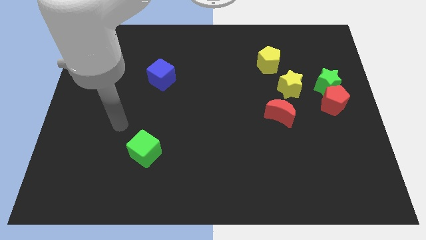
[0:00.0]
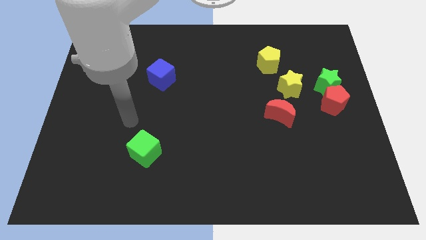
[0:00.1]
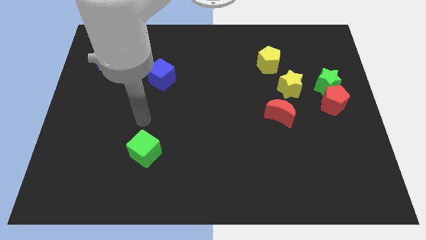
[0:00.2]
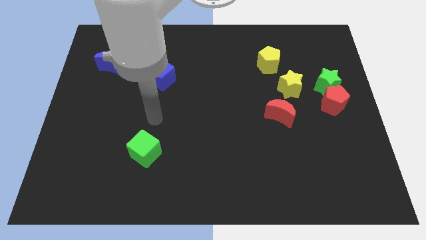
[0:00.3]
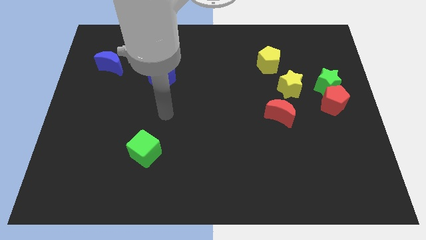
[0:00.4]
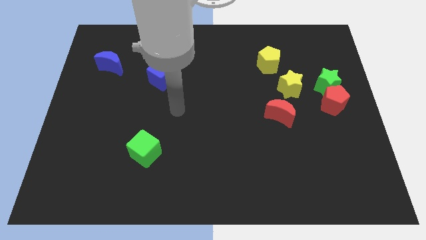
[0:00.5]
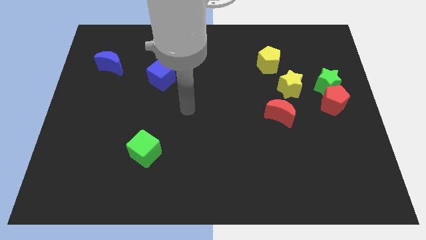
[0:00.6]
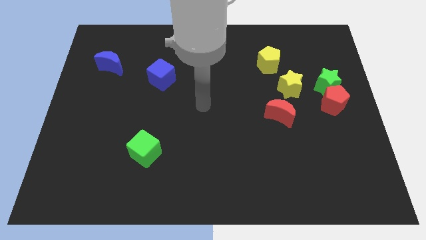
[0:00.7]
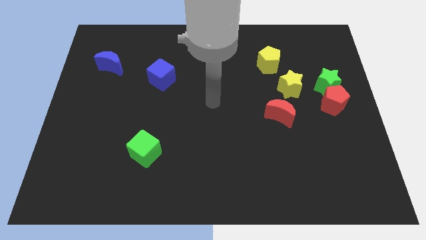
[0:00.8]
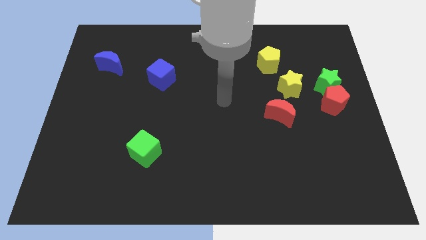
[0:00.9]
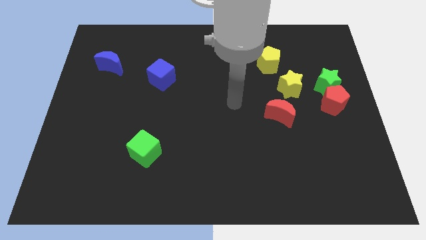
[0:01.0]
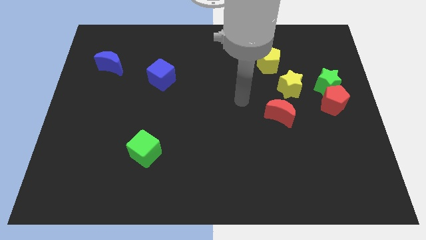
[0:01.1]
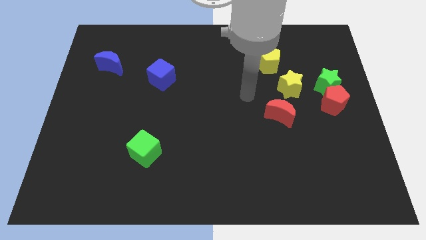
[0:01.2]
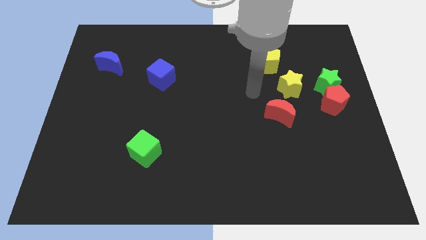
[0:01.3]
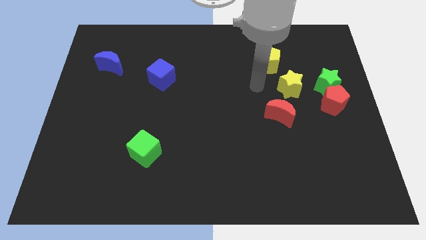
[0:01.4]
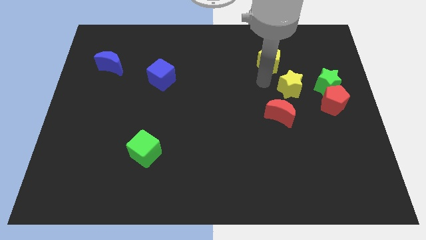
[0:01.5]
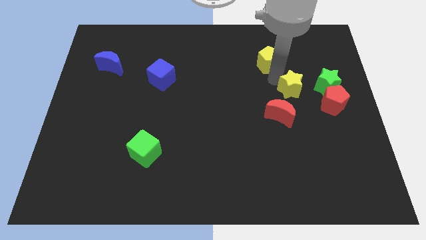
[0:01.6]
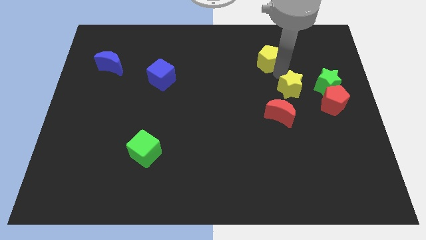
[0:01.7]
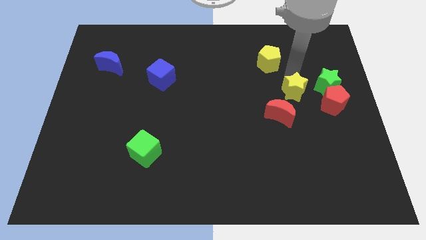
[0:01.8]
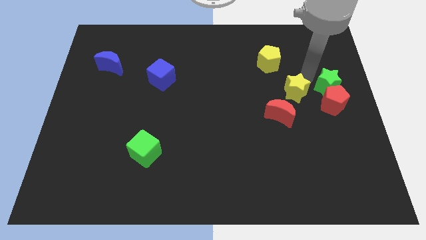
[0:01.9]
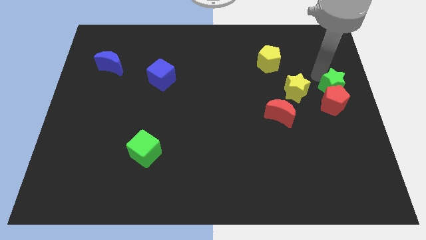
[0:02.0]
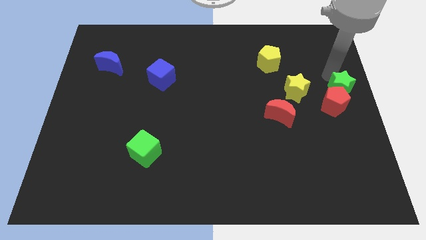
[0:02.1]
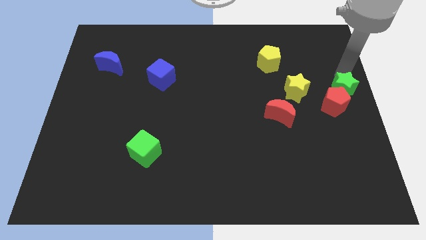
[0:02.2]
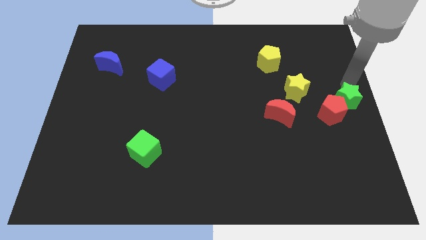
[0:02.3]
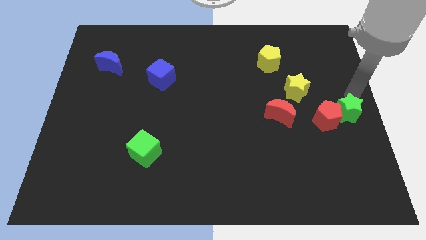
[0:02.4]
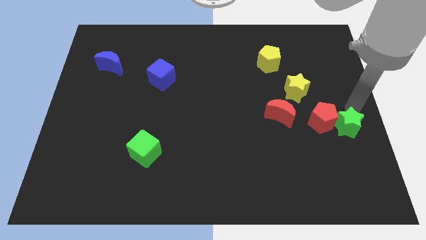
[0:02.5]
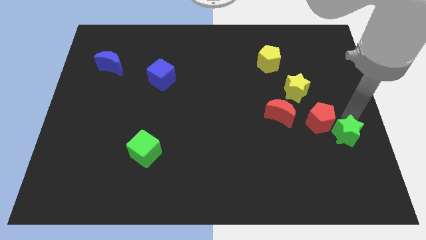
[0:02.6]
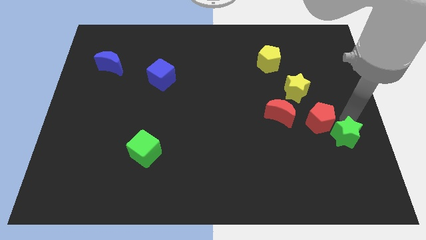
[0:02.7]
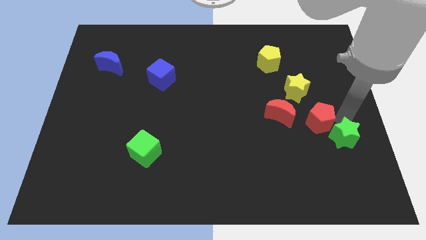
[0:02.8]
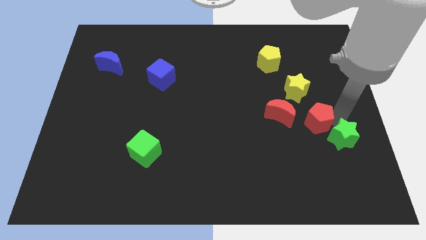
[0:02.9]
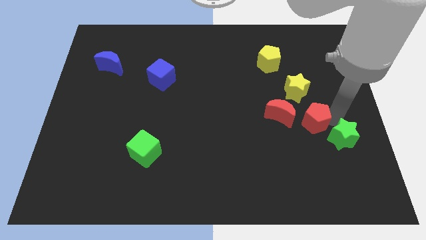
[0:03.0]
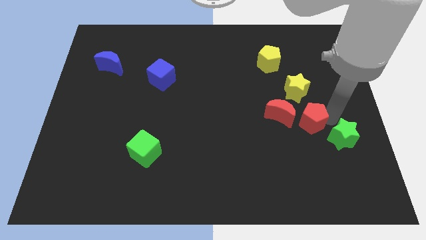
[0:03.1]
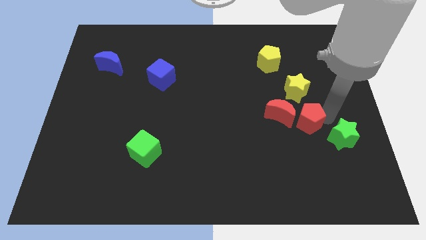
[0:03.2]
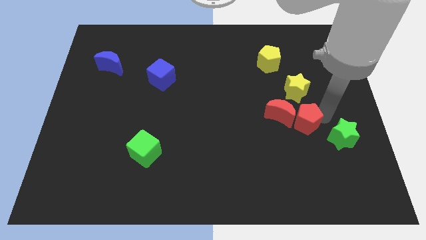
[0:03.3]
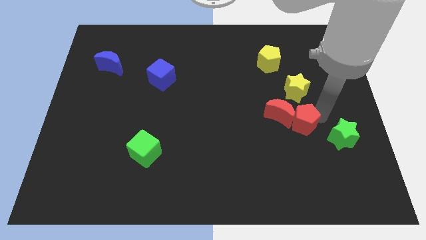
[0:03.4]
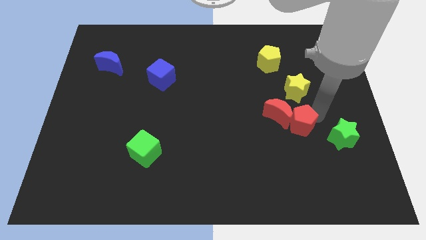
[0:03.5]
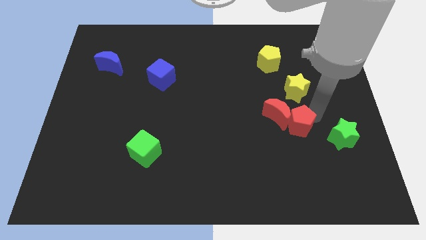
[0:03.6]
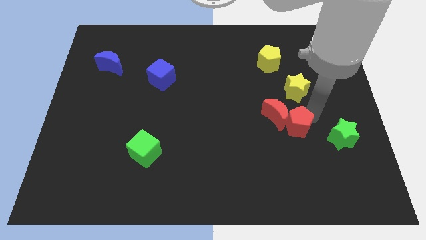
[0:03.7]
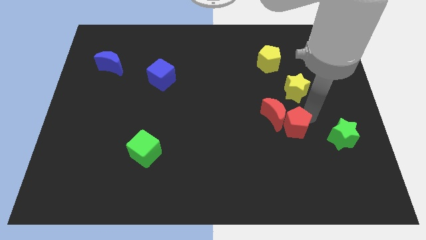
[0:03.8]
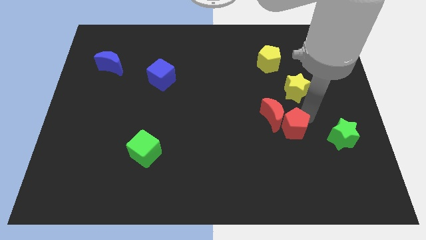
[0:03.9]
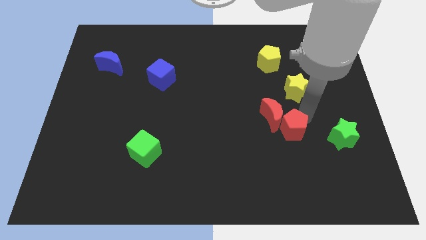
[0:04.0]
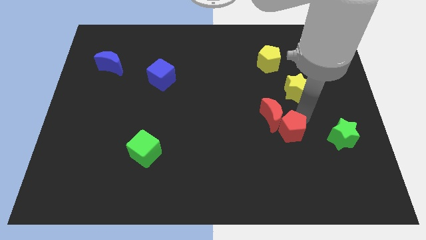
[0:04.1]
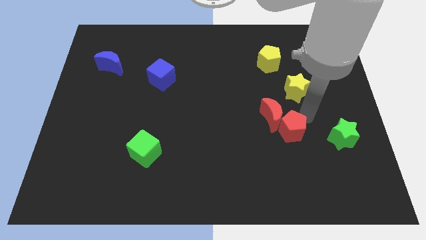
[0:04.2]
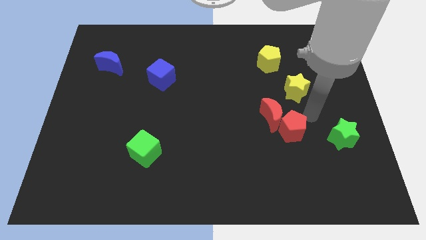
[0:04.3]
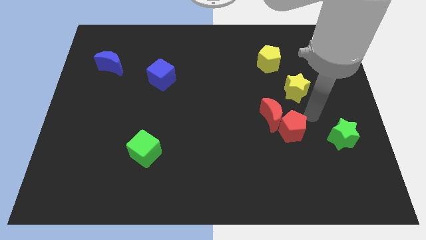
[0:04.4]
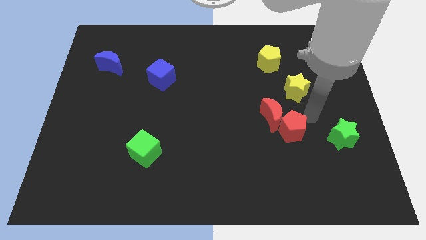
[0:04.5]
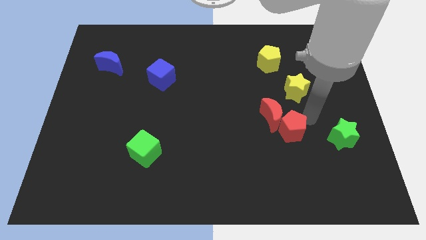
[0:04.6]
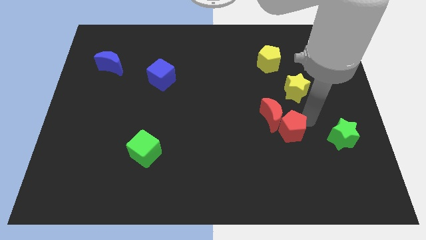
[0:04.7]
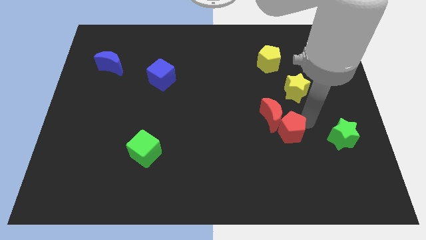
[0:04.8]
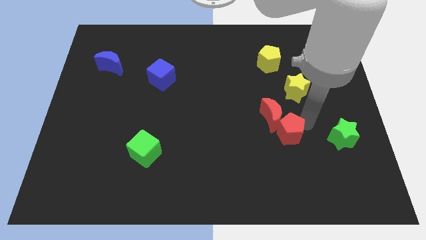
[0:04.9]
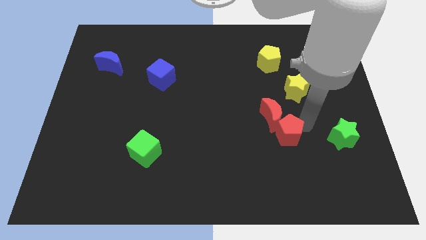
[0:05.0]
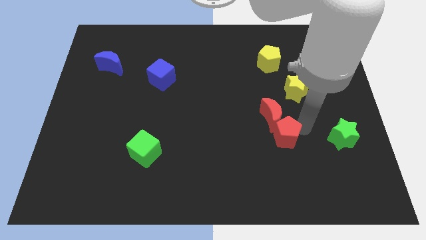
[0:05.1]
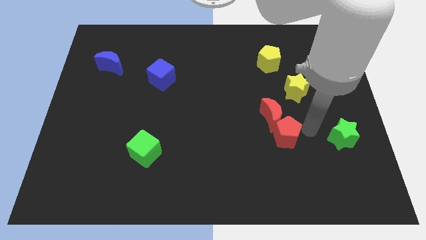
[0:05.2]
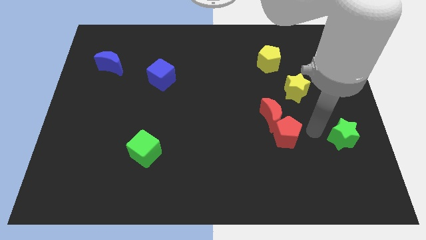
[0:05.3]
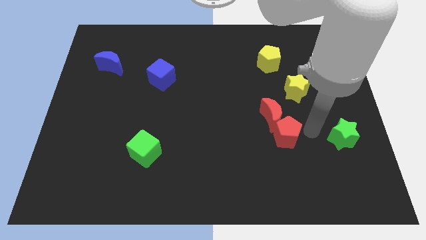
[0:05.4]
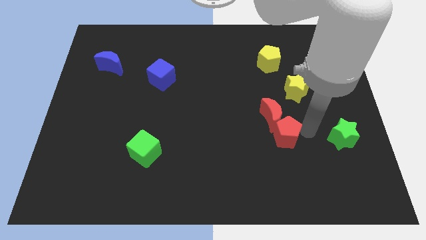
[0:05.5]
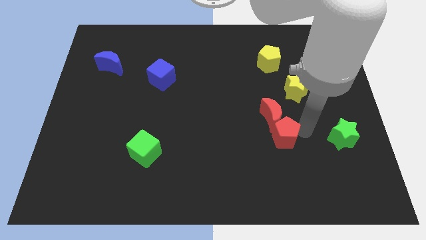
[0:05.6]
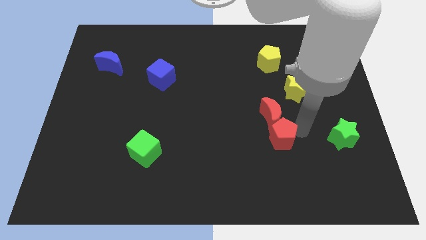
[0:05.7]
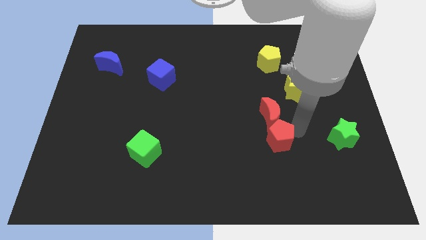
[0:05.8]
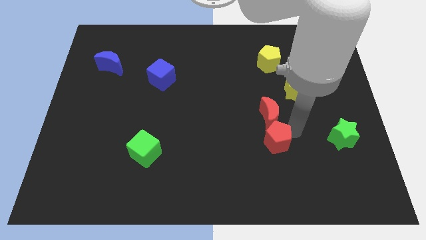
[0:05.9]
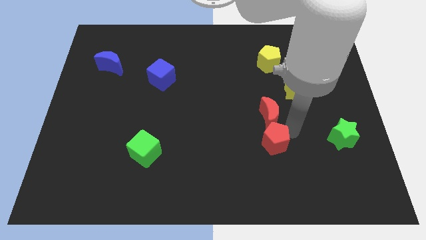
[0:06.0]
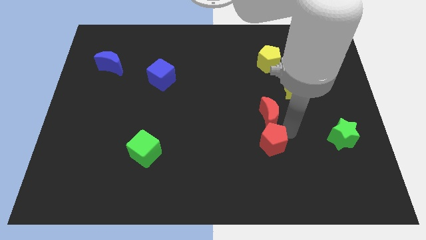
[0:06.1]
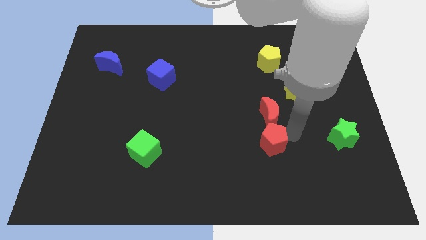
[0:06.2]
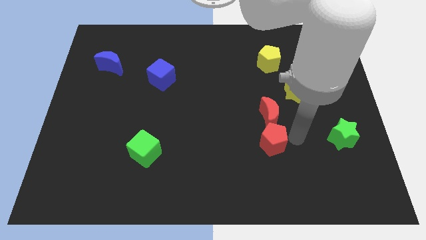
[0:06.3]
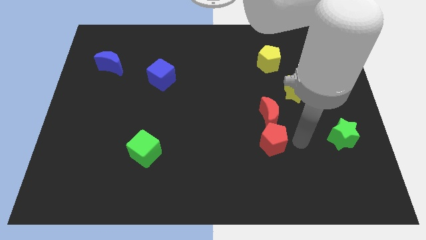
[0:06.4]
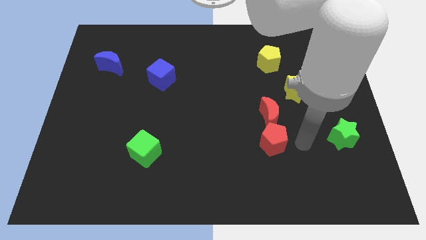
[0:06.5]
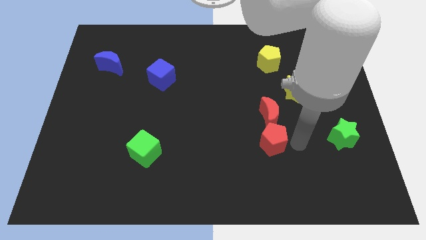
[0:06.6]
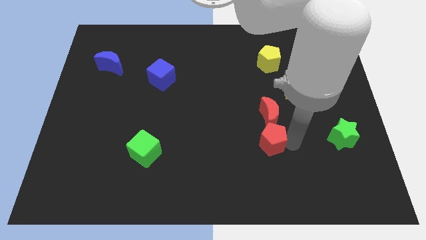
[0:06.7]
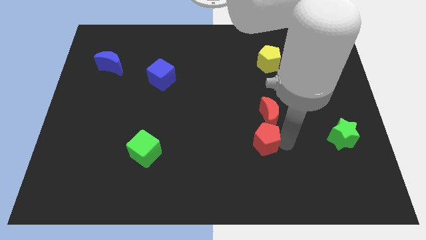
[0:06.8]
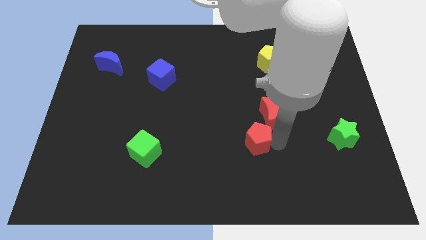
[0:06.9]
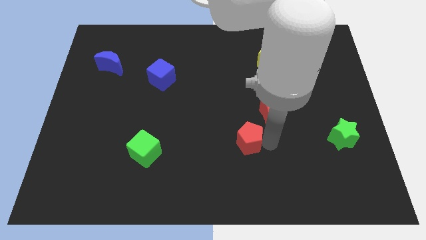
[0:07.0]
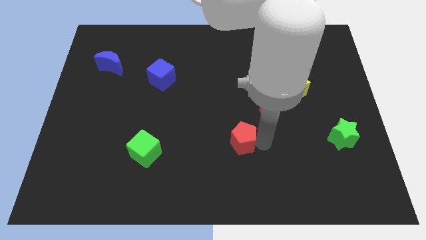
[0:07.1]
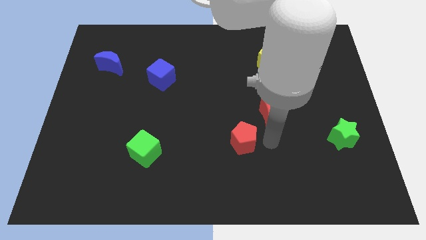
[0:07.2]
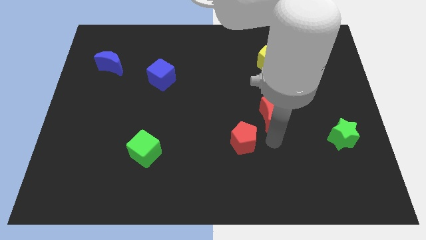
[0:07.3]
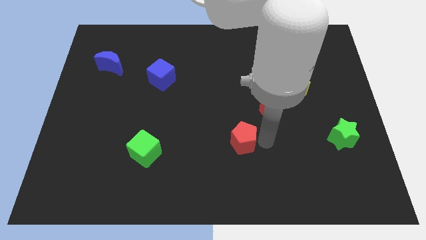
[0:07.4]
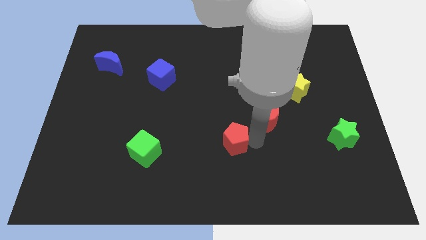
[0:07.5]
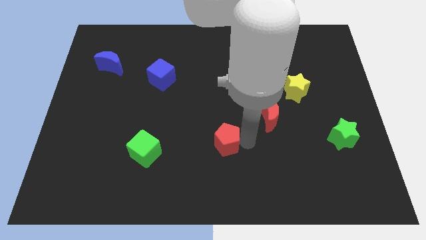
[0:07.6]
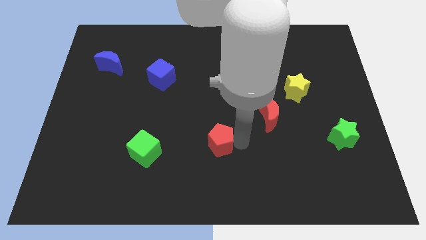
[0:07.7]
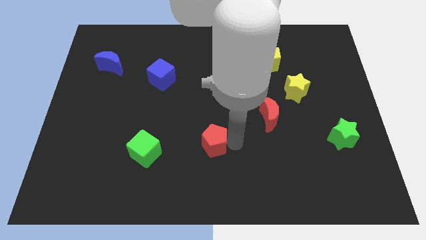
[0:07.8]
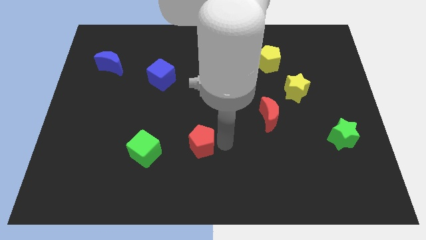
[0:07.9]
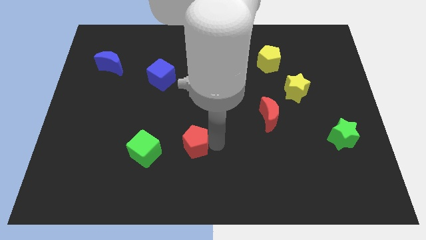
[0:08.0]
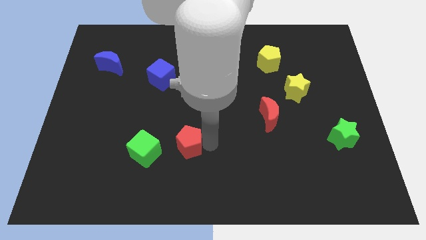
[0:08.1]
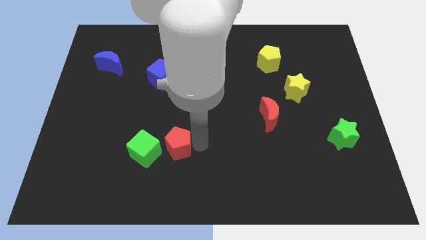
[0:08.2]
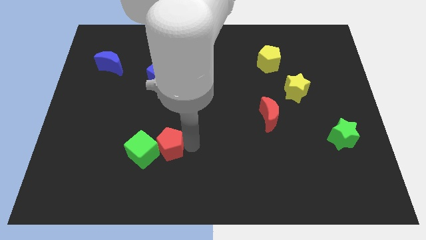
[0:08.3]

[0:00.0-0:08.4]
slide the red pentagon close to the green cube
